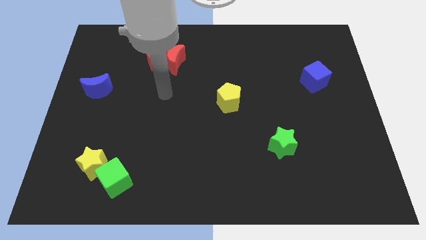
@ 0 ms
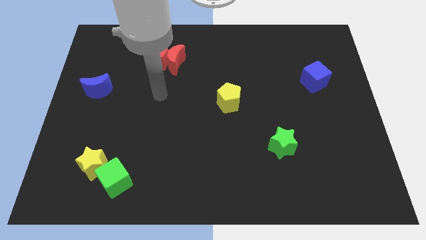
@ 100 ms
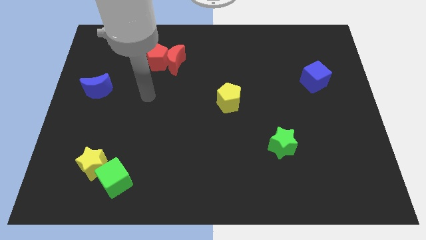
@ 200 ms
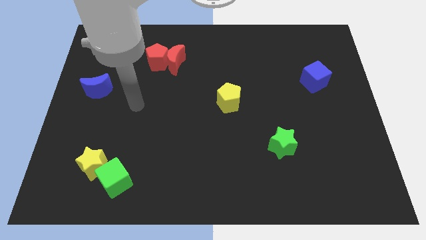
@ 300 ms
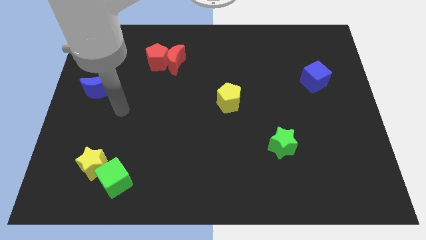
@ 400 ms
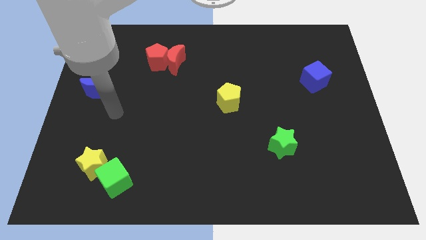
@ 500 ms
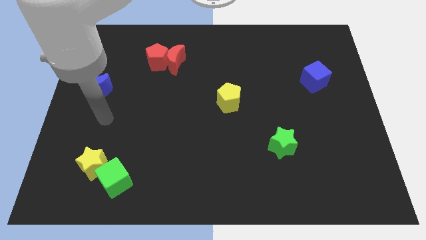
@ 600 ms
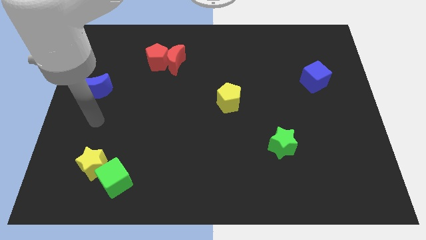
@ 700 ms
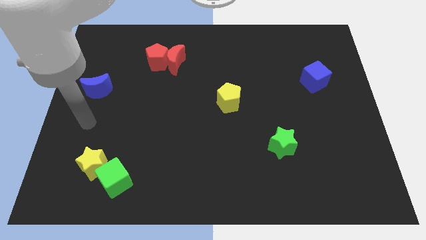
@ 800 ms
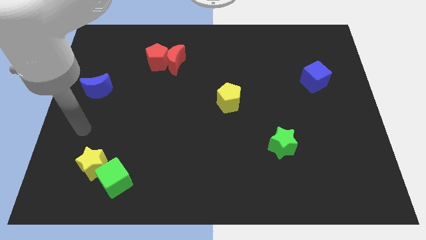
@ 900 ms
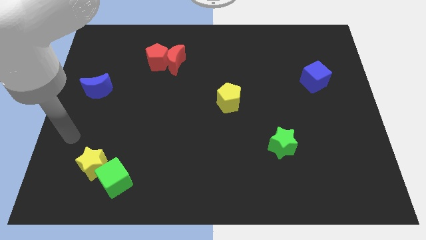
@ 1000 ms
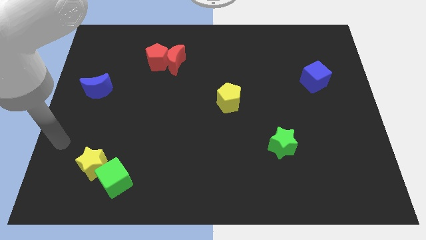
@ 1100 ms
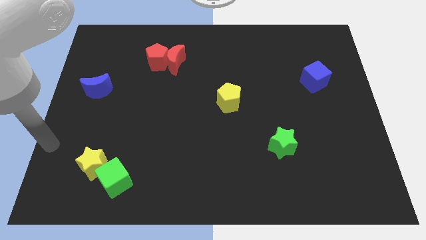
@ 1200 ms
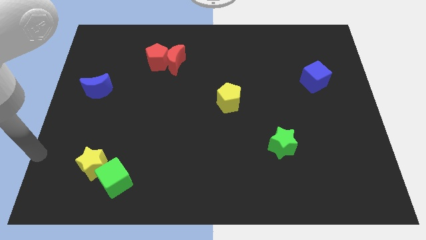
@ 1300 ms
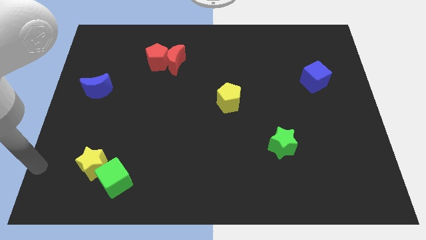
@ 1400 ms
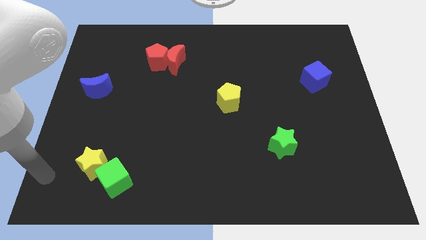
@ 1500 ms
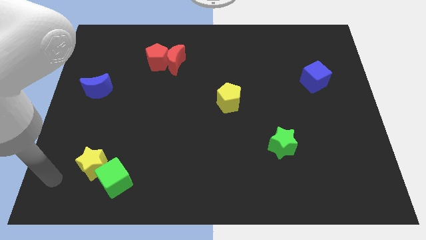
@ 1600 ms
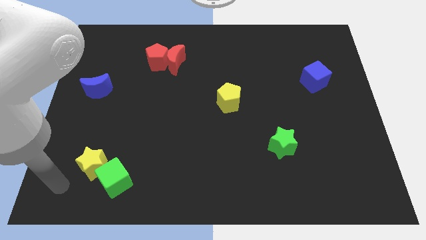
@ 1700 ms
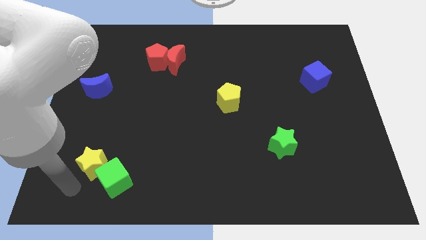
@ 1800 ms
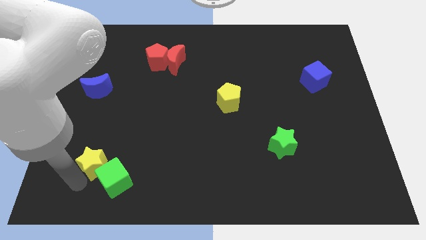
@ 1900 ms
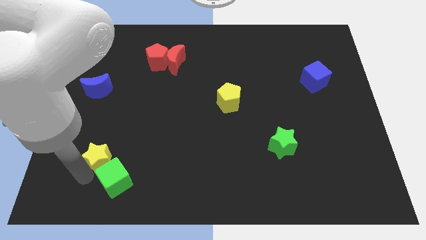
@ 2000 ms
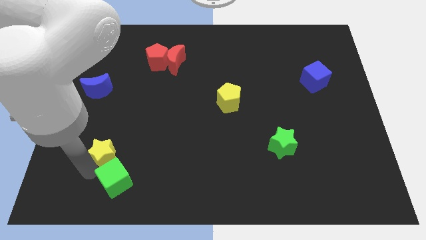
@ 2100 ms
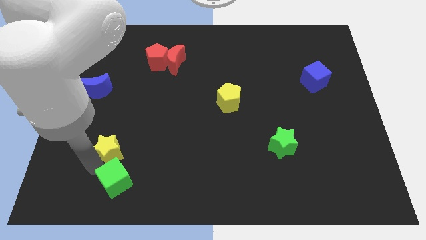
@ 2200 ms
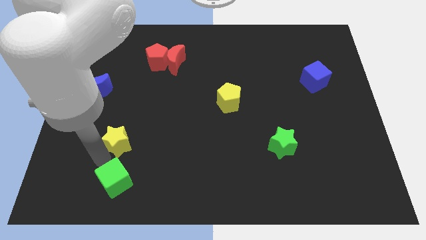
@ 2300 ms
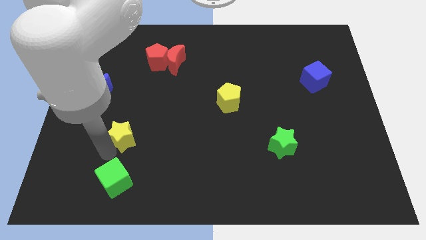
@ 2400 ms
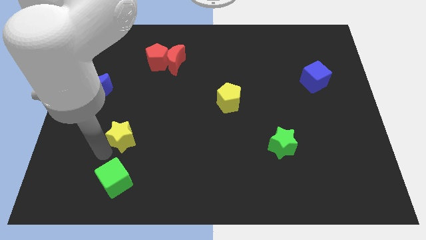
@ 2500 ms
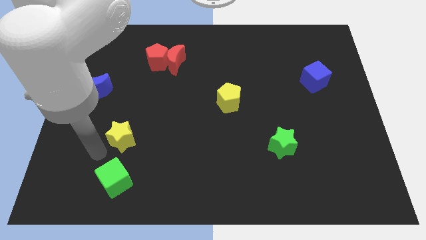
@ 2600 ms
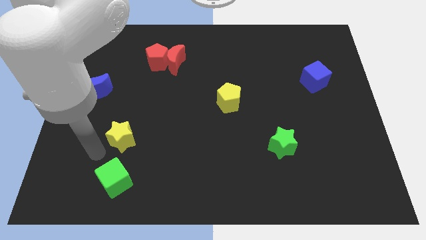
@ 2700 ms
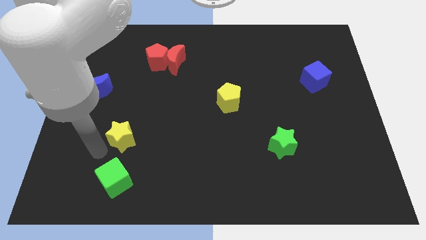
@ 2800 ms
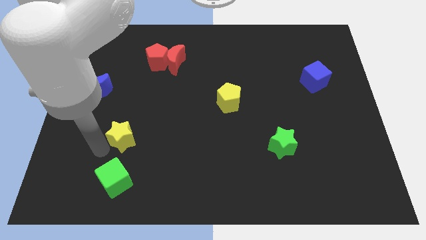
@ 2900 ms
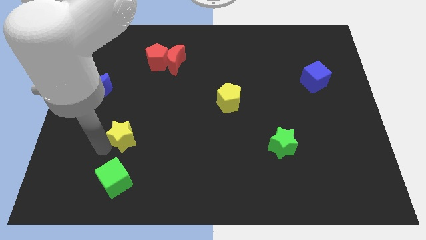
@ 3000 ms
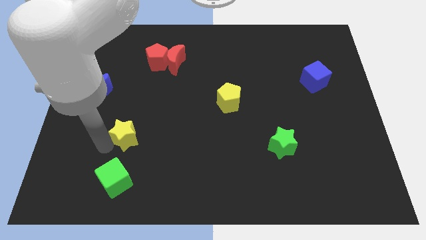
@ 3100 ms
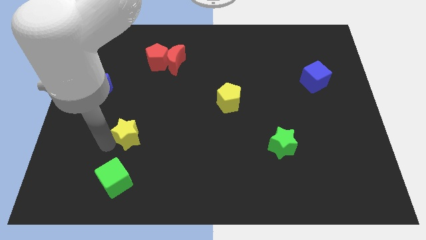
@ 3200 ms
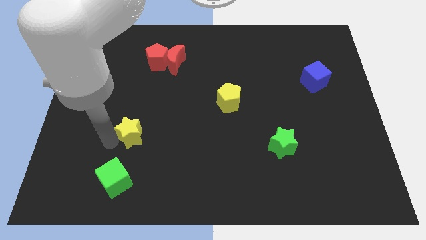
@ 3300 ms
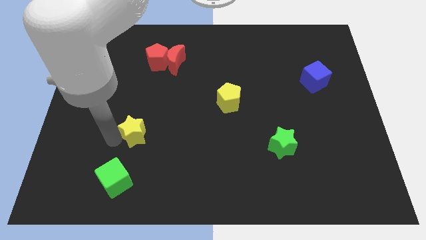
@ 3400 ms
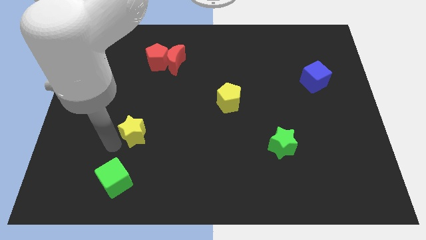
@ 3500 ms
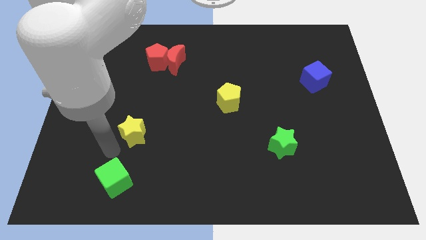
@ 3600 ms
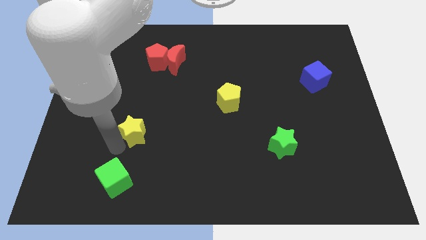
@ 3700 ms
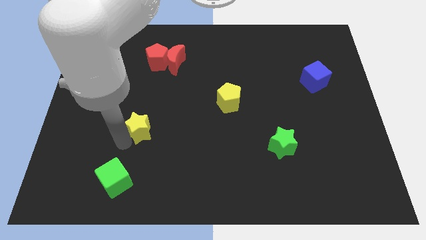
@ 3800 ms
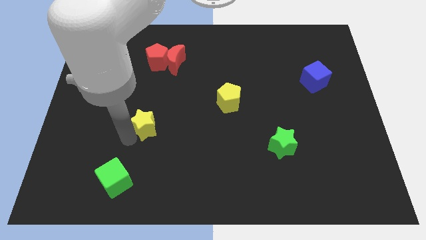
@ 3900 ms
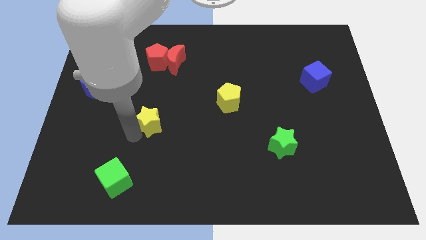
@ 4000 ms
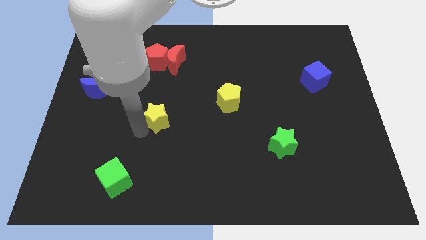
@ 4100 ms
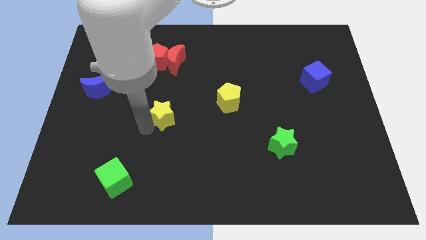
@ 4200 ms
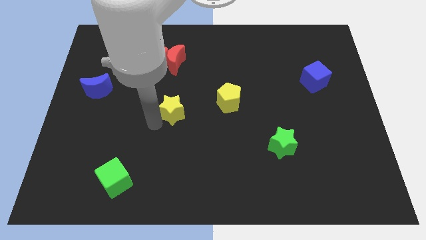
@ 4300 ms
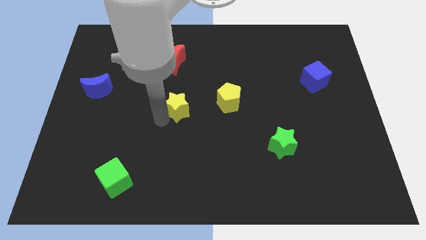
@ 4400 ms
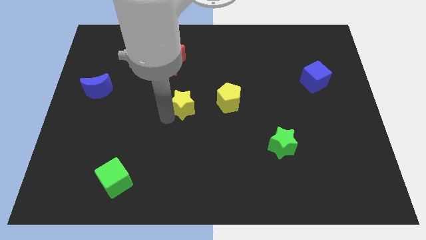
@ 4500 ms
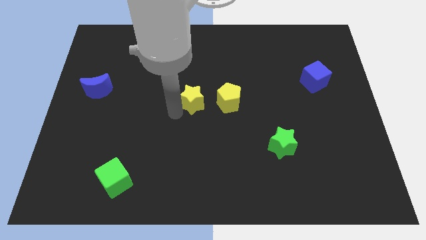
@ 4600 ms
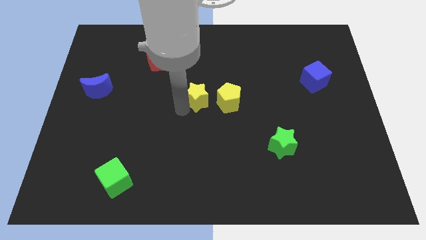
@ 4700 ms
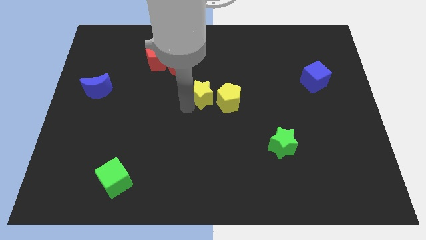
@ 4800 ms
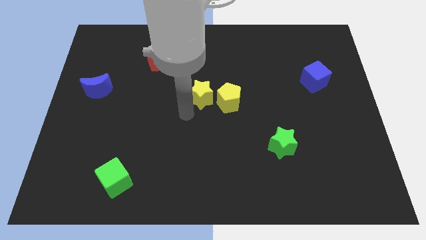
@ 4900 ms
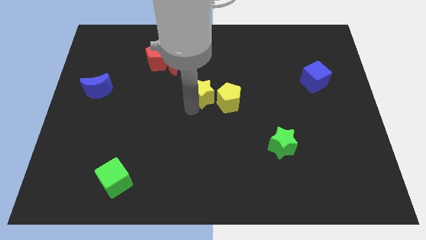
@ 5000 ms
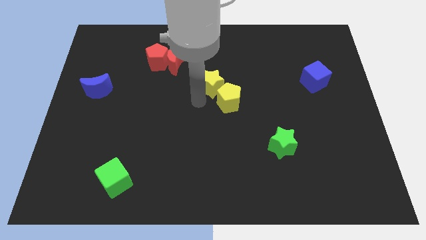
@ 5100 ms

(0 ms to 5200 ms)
move the yellow star to the top side of the yellow pentagon

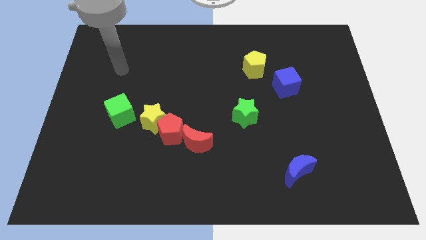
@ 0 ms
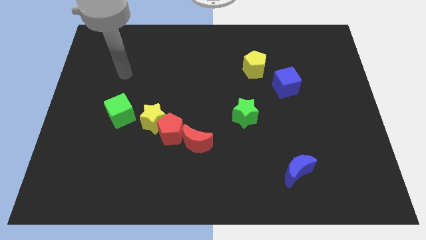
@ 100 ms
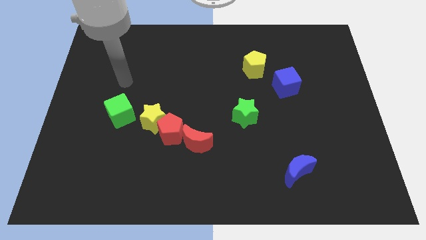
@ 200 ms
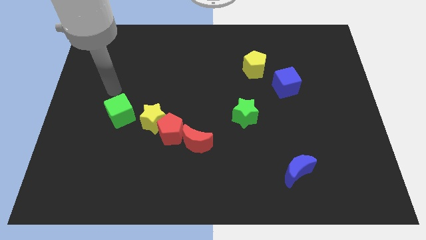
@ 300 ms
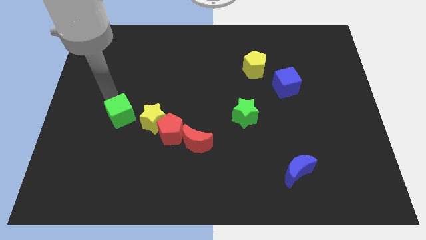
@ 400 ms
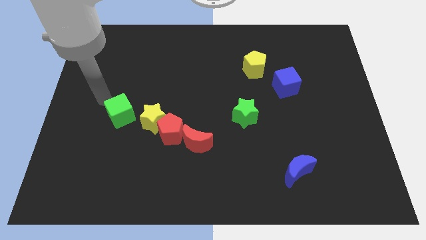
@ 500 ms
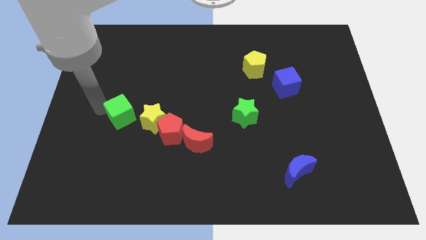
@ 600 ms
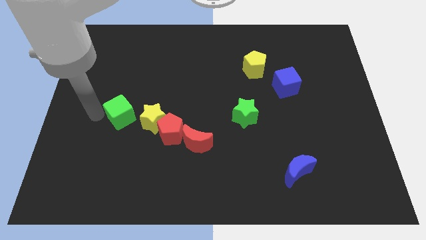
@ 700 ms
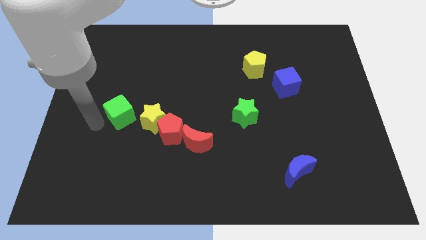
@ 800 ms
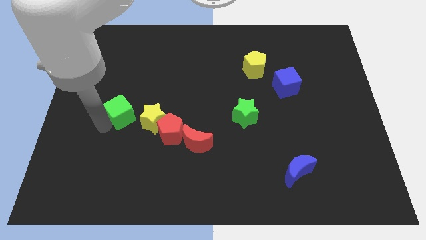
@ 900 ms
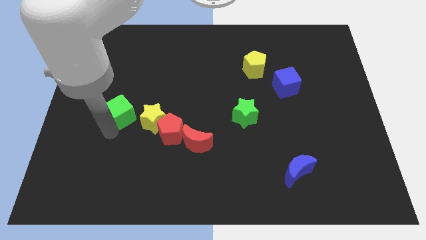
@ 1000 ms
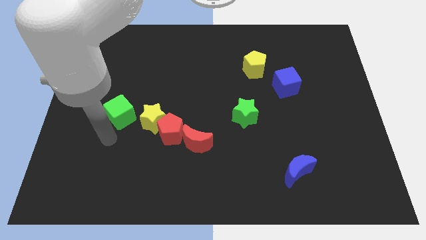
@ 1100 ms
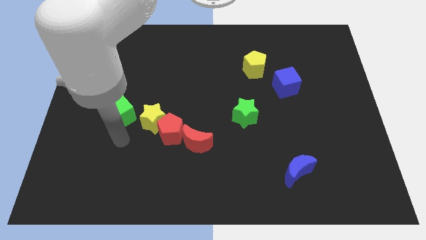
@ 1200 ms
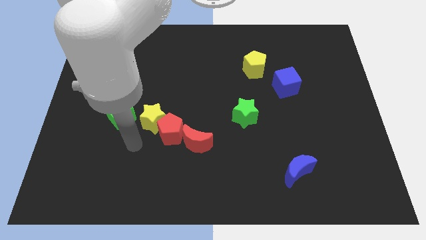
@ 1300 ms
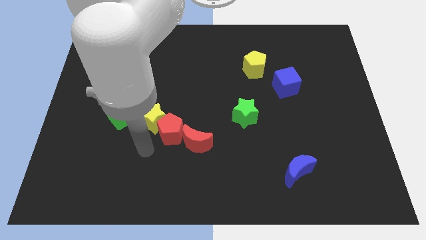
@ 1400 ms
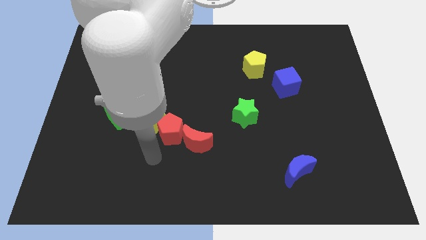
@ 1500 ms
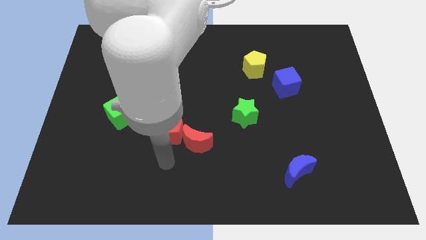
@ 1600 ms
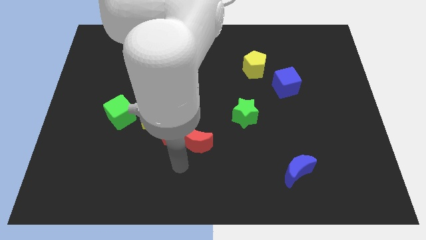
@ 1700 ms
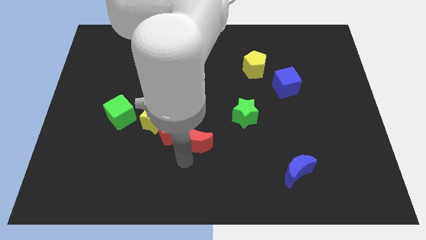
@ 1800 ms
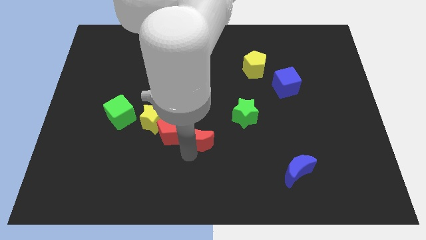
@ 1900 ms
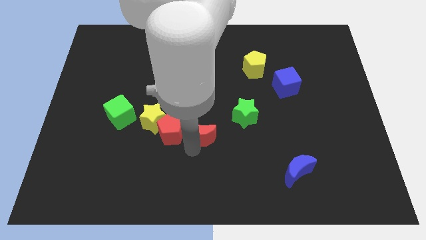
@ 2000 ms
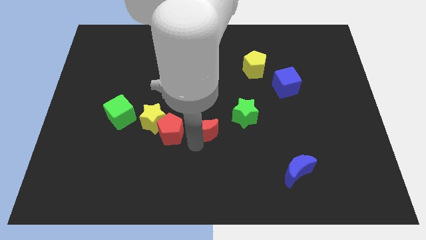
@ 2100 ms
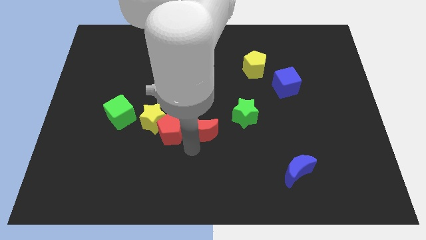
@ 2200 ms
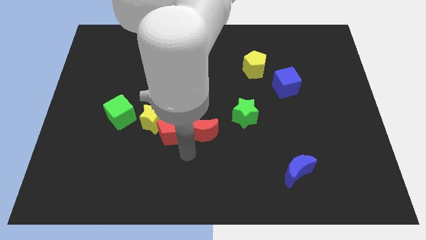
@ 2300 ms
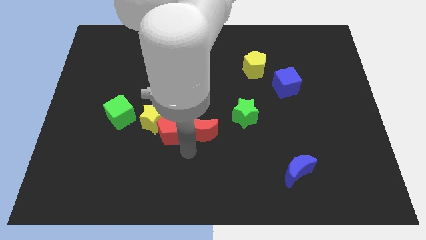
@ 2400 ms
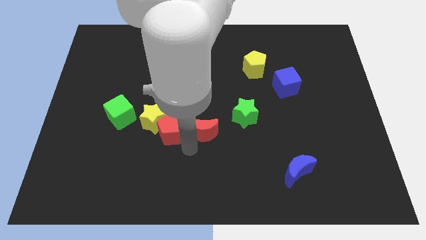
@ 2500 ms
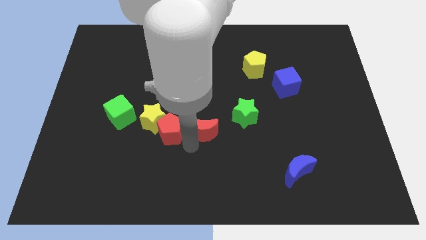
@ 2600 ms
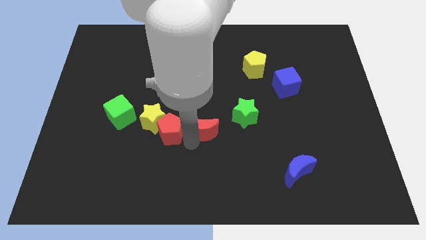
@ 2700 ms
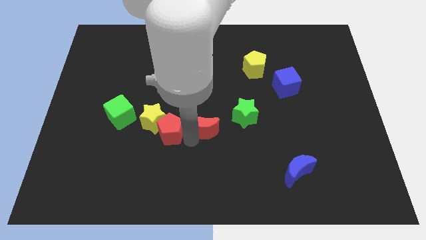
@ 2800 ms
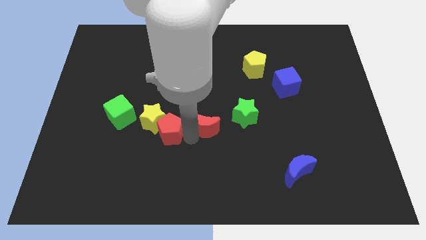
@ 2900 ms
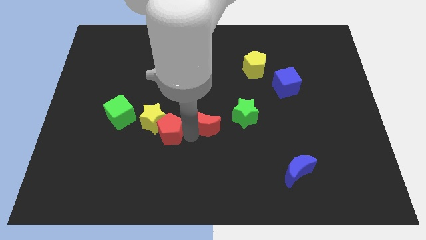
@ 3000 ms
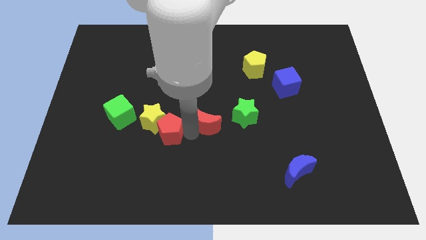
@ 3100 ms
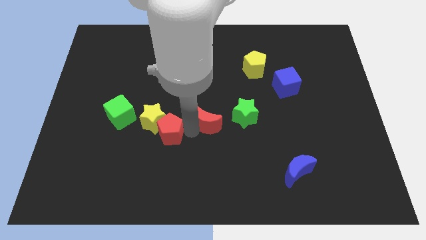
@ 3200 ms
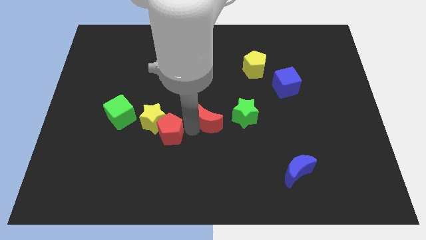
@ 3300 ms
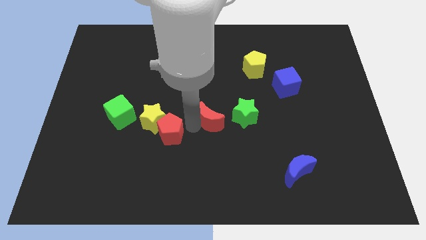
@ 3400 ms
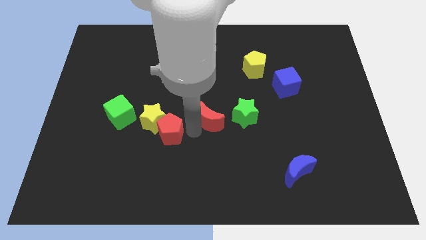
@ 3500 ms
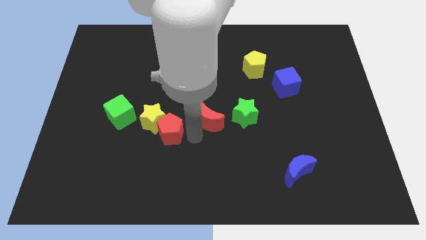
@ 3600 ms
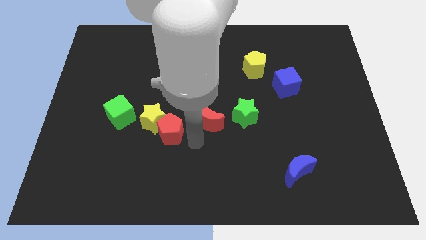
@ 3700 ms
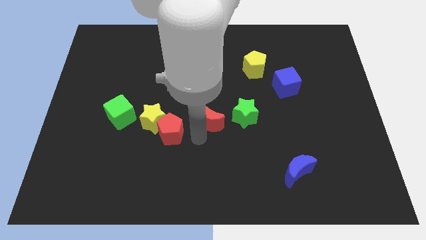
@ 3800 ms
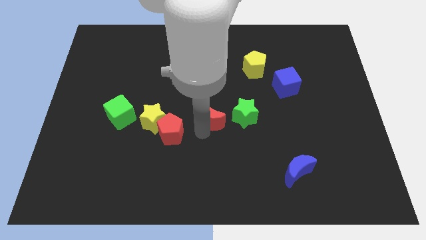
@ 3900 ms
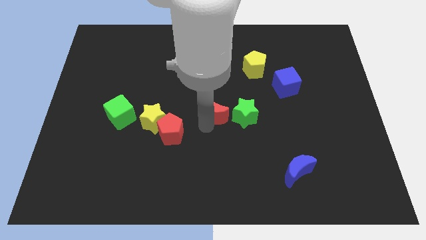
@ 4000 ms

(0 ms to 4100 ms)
move the red moon to the top left of the green star
